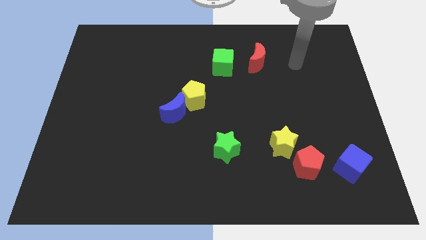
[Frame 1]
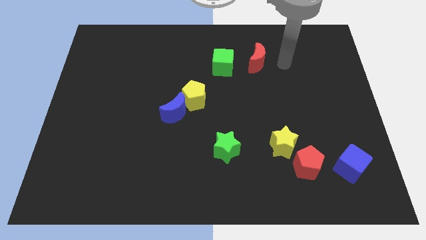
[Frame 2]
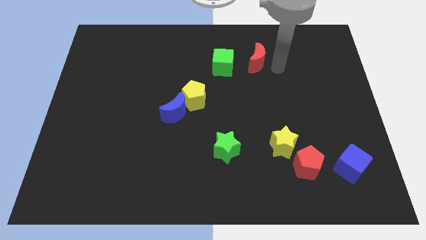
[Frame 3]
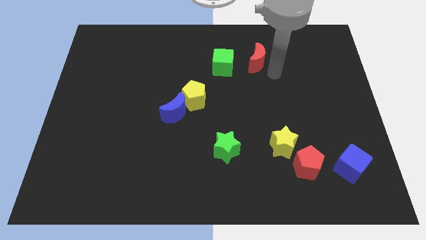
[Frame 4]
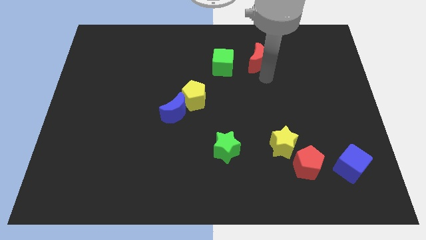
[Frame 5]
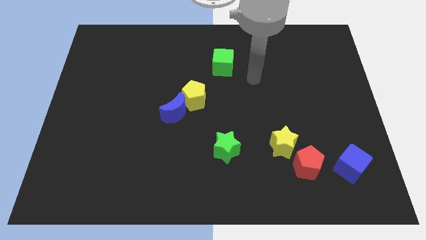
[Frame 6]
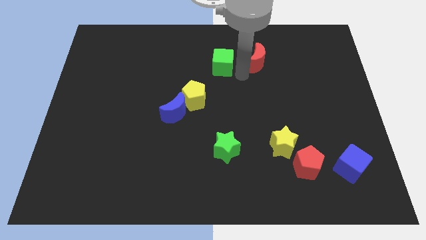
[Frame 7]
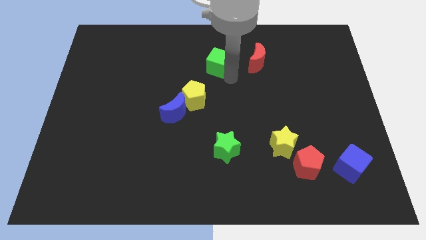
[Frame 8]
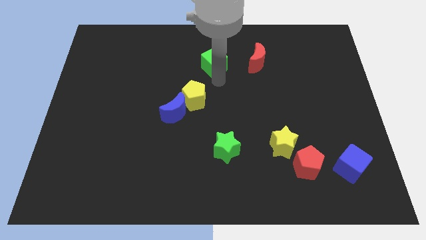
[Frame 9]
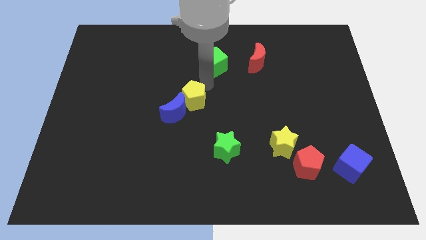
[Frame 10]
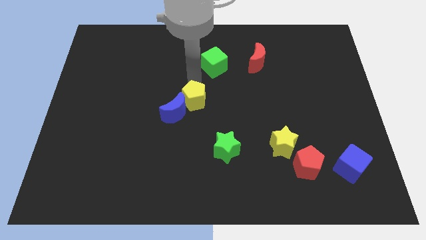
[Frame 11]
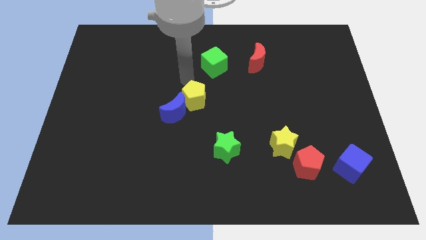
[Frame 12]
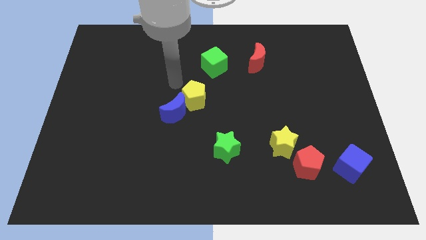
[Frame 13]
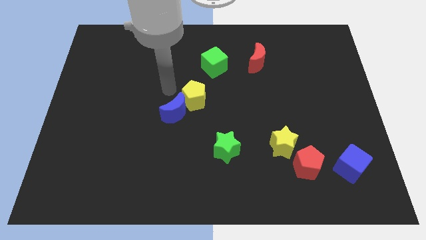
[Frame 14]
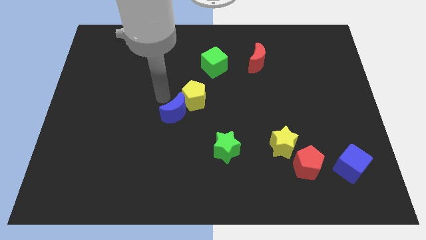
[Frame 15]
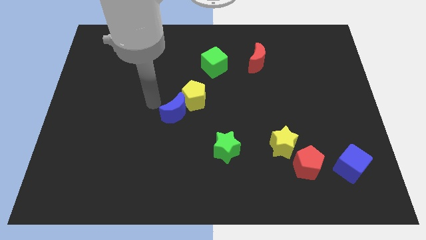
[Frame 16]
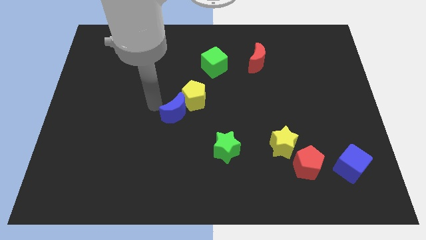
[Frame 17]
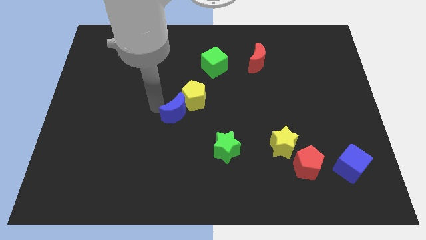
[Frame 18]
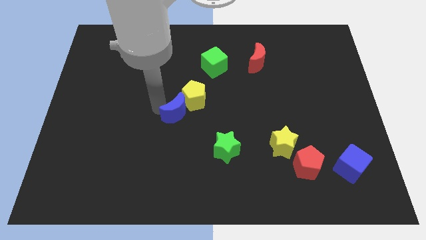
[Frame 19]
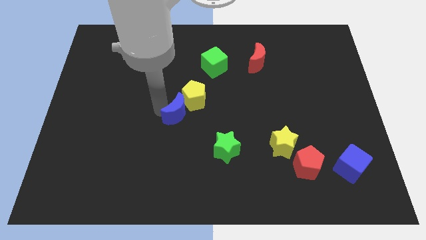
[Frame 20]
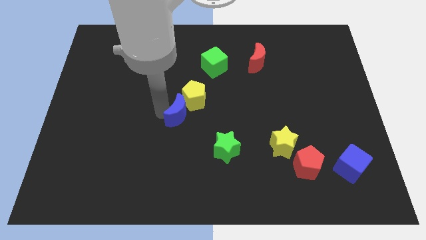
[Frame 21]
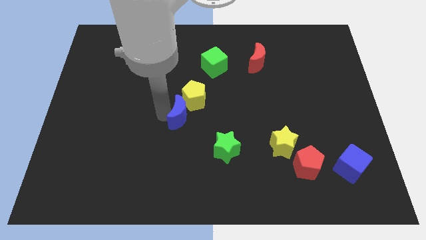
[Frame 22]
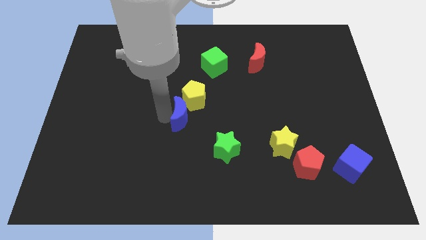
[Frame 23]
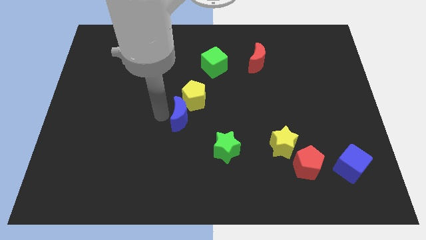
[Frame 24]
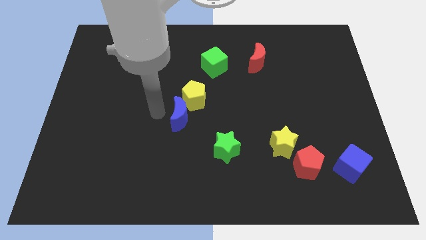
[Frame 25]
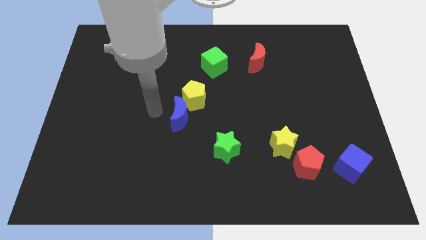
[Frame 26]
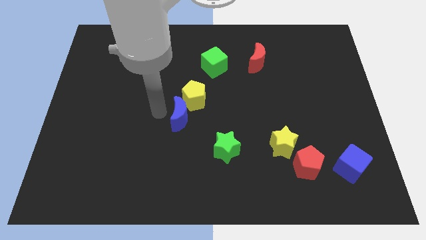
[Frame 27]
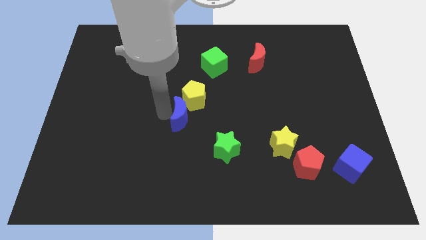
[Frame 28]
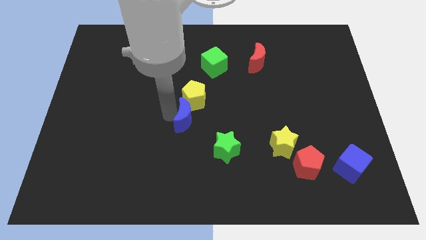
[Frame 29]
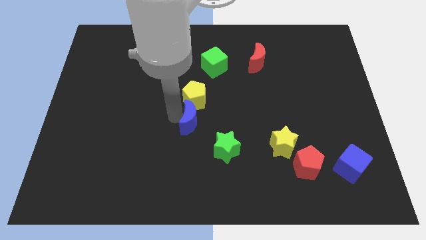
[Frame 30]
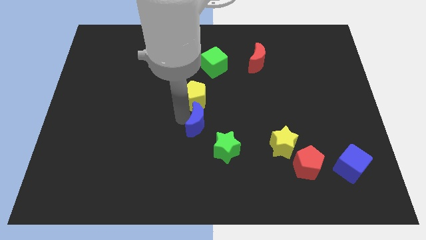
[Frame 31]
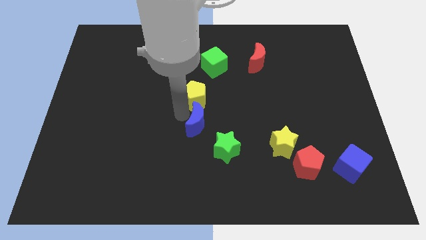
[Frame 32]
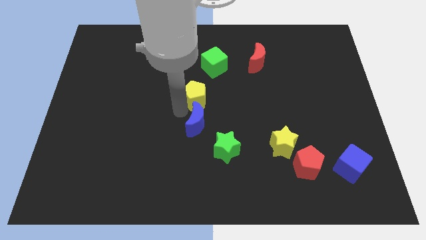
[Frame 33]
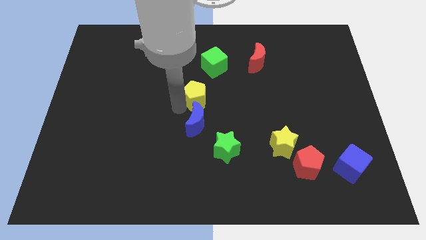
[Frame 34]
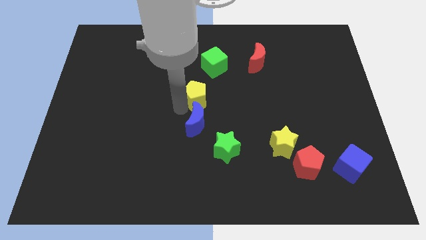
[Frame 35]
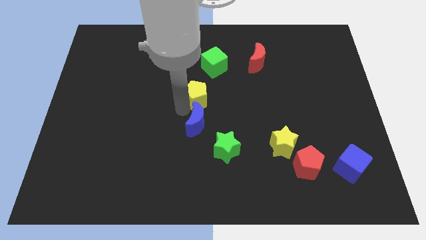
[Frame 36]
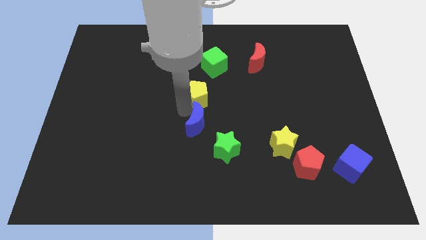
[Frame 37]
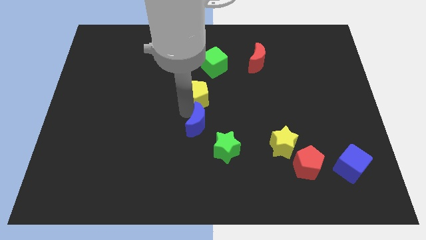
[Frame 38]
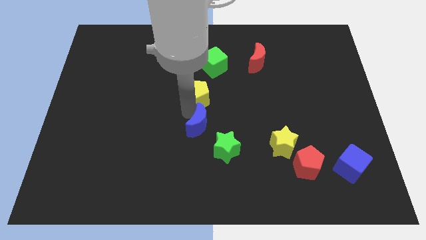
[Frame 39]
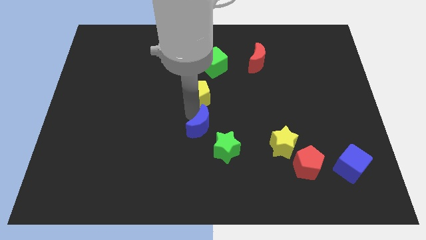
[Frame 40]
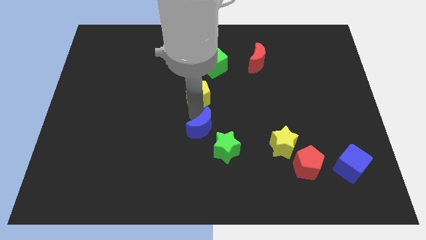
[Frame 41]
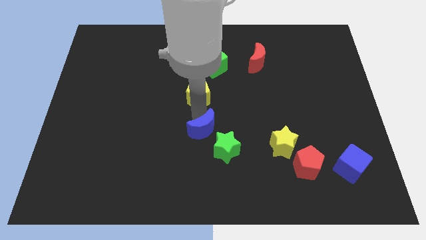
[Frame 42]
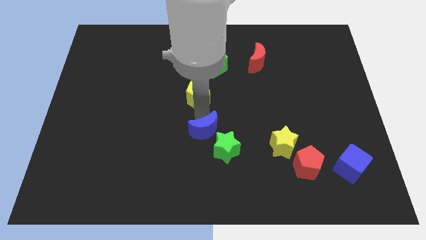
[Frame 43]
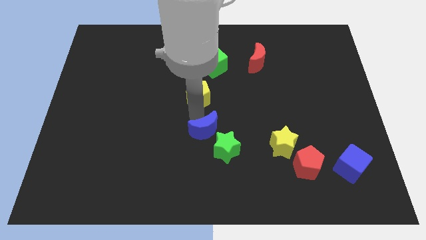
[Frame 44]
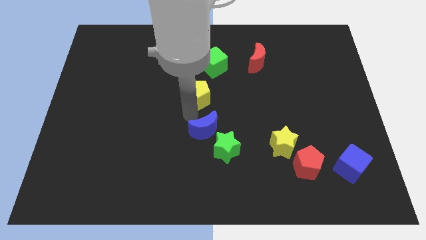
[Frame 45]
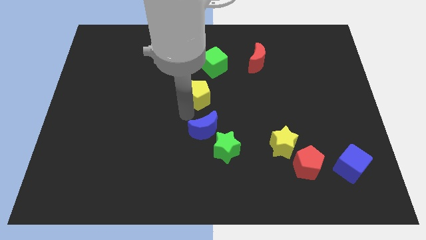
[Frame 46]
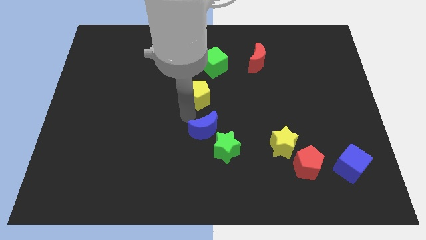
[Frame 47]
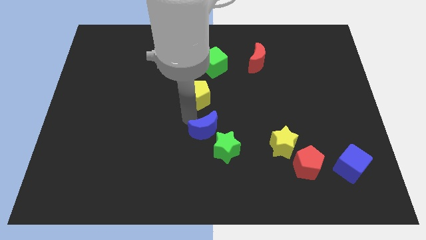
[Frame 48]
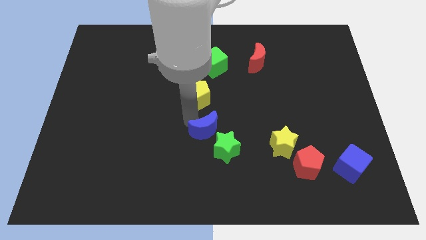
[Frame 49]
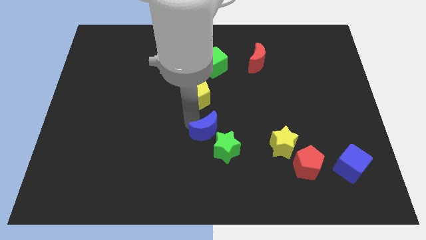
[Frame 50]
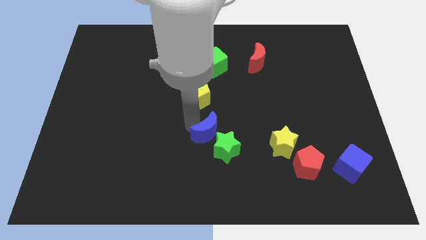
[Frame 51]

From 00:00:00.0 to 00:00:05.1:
push the blue moon to the green star

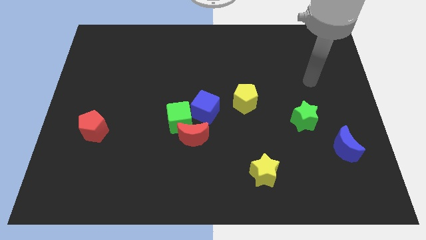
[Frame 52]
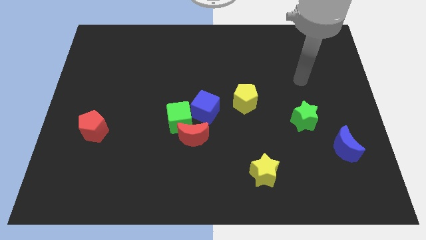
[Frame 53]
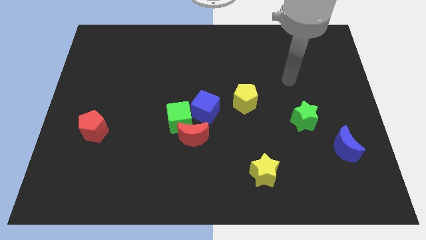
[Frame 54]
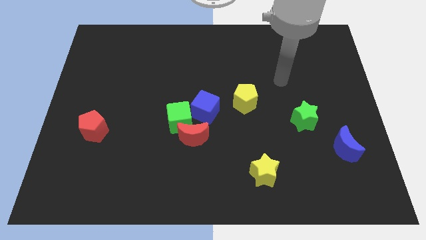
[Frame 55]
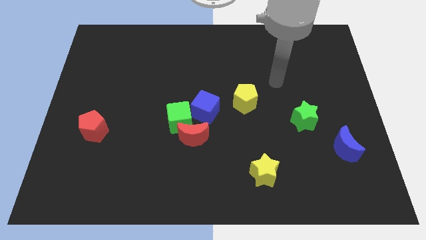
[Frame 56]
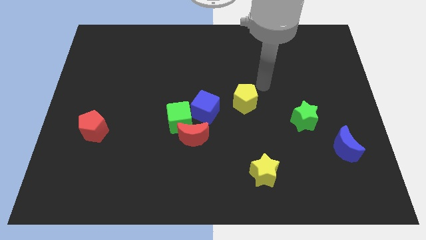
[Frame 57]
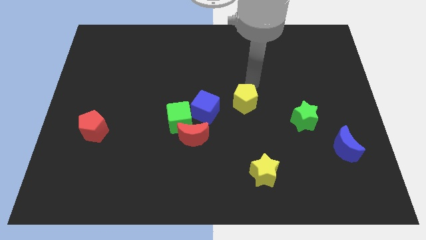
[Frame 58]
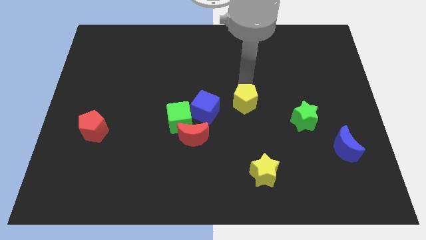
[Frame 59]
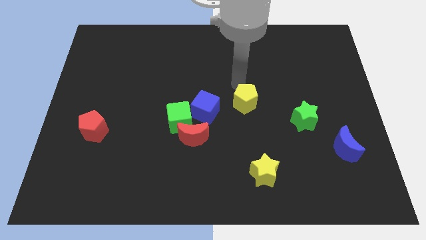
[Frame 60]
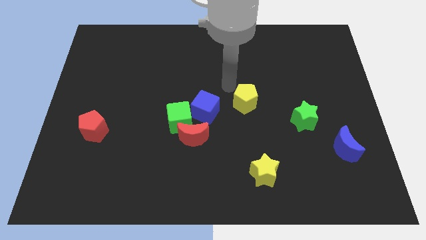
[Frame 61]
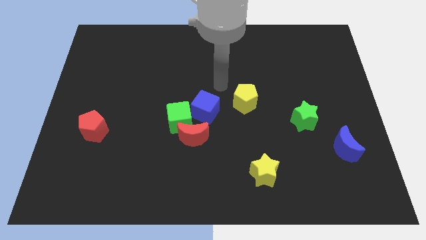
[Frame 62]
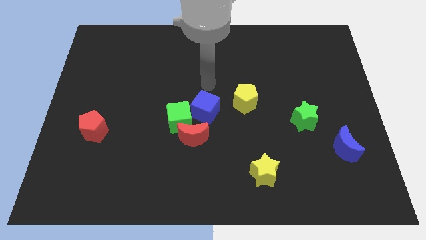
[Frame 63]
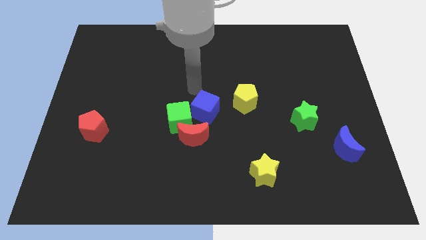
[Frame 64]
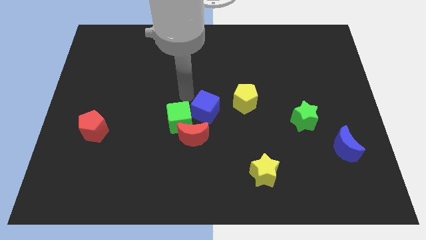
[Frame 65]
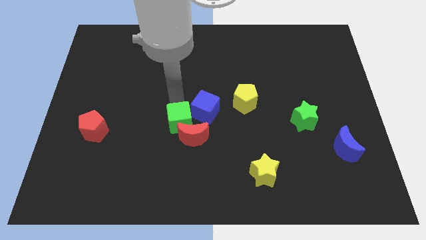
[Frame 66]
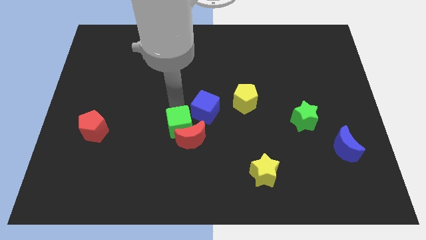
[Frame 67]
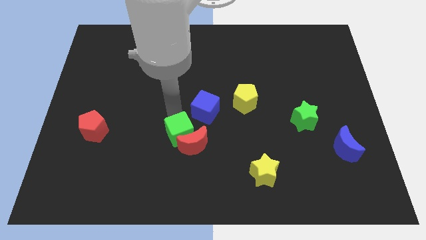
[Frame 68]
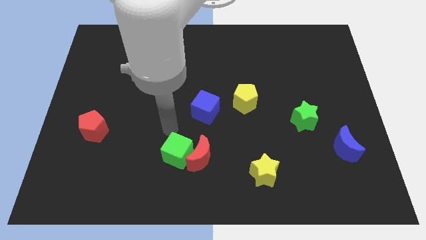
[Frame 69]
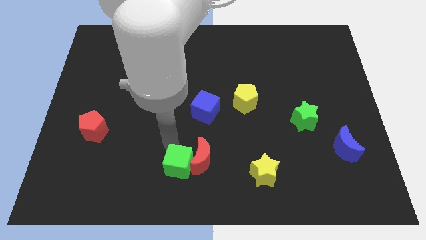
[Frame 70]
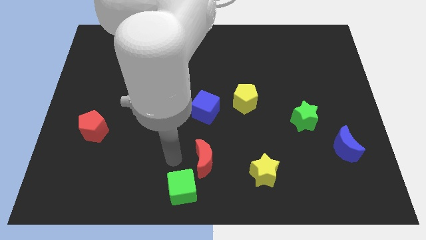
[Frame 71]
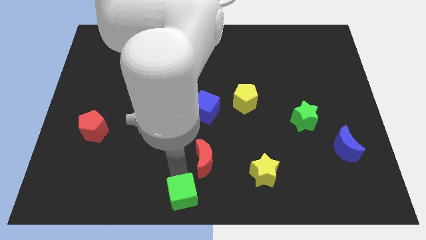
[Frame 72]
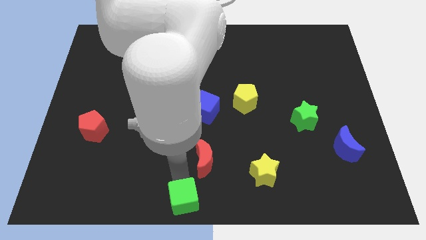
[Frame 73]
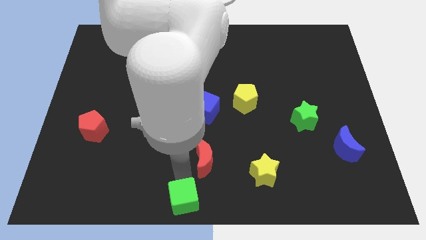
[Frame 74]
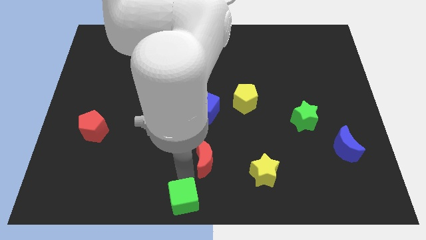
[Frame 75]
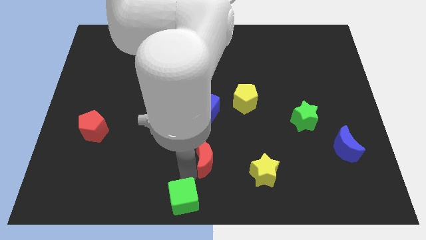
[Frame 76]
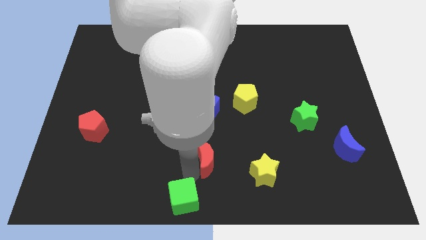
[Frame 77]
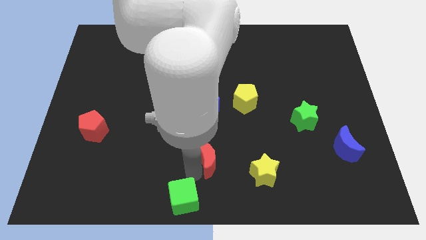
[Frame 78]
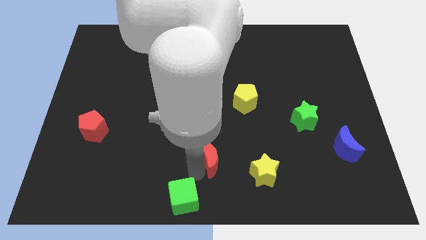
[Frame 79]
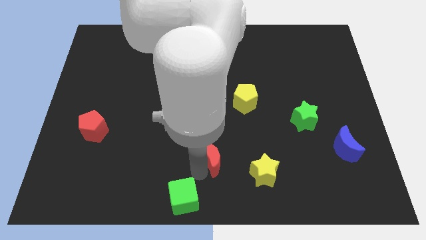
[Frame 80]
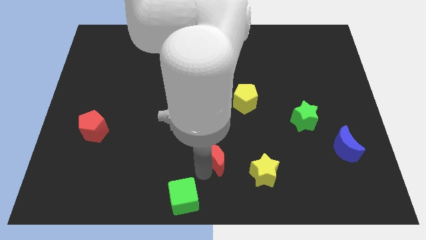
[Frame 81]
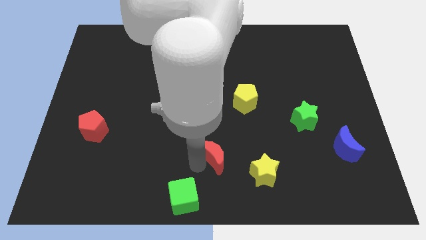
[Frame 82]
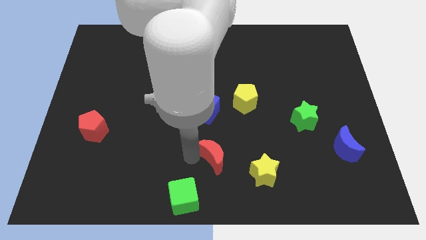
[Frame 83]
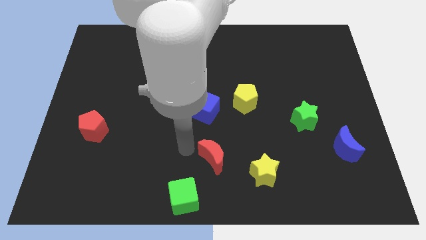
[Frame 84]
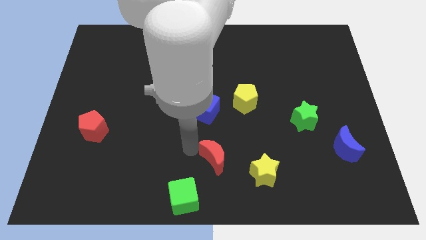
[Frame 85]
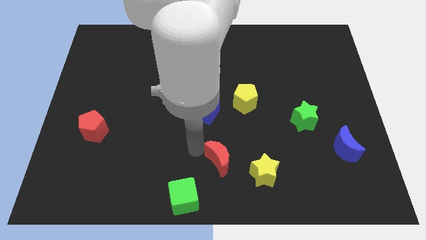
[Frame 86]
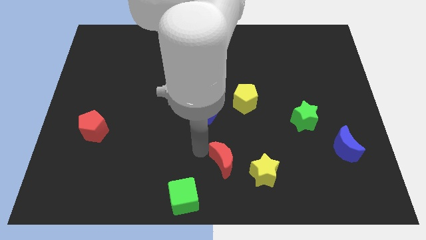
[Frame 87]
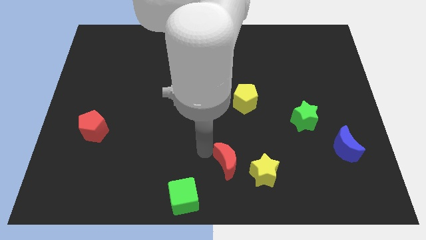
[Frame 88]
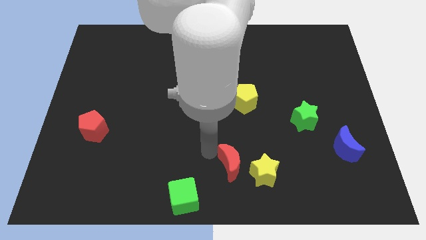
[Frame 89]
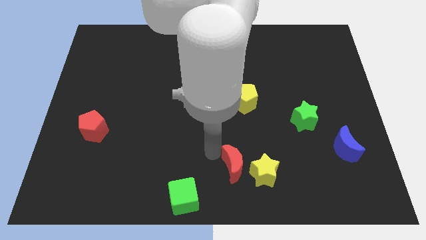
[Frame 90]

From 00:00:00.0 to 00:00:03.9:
put the red moon towards the yellow star
